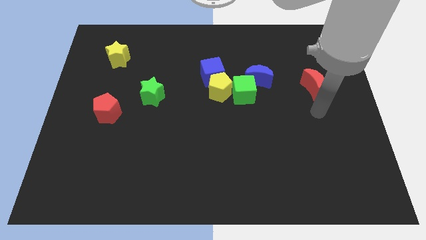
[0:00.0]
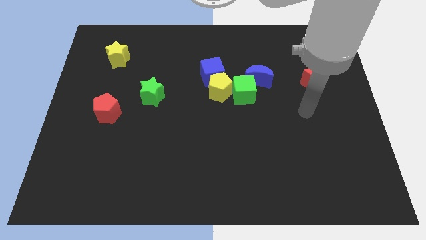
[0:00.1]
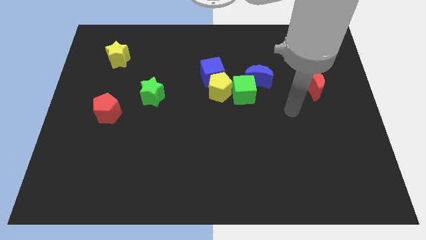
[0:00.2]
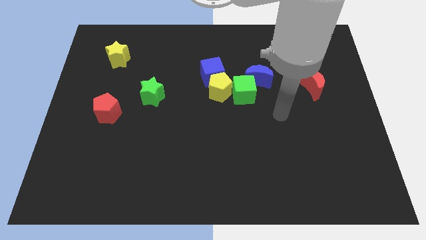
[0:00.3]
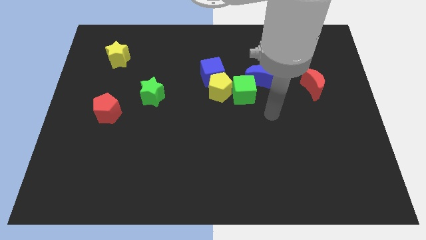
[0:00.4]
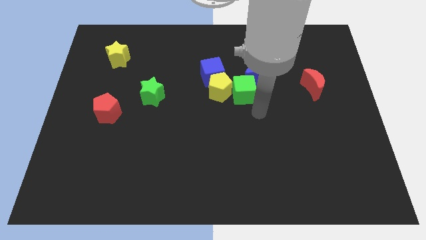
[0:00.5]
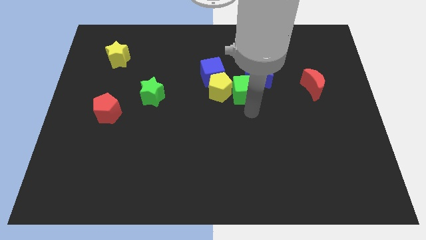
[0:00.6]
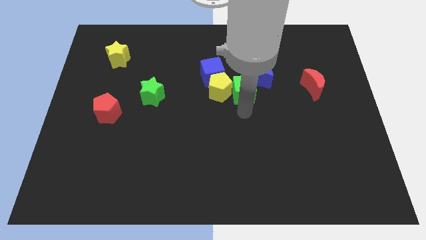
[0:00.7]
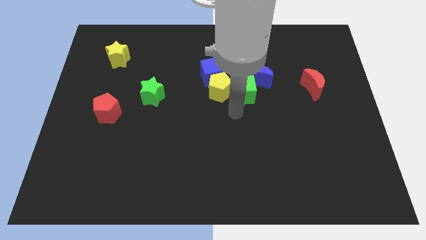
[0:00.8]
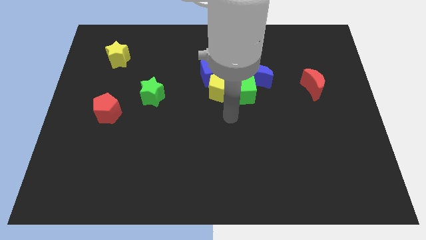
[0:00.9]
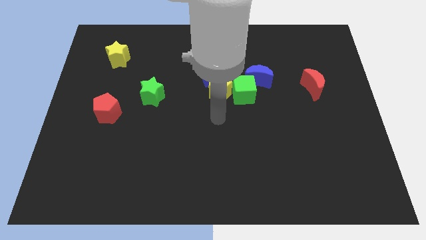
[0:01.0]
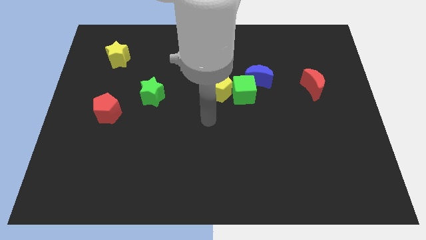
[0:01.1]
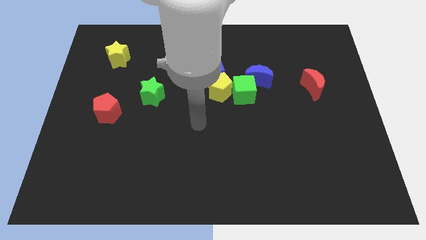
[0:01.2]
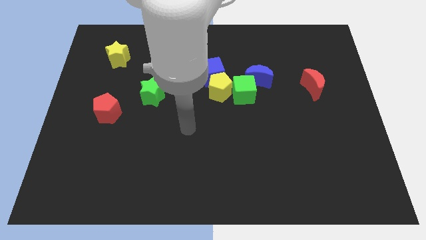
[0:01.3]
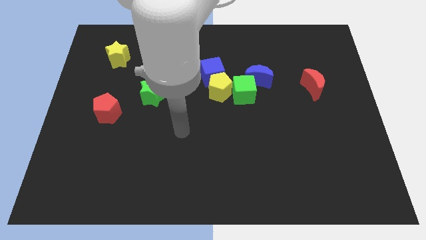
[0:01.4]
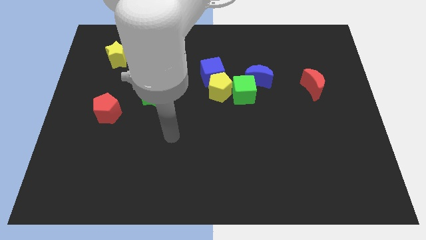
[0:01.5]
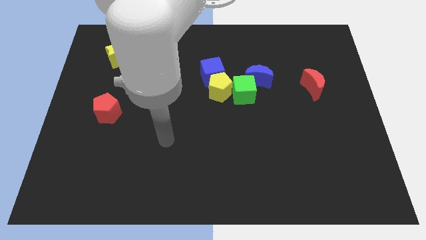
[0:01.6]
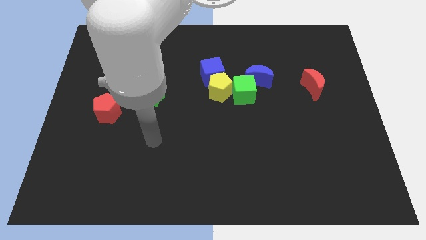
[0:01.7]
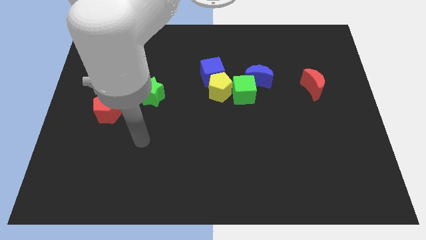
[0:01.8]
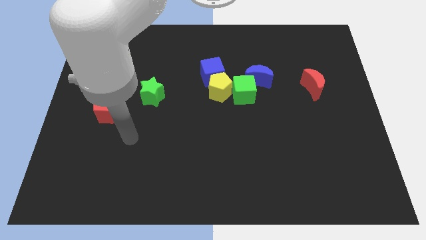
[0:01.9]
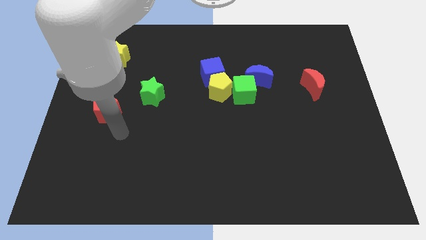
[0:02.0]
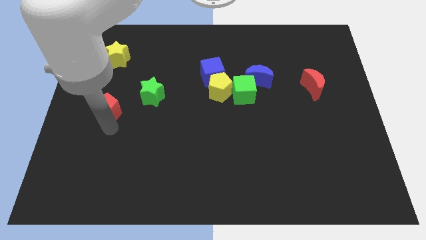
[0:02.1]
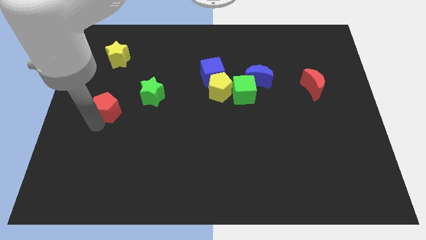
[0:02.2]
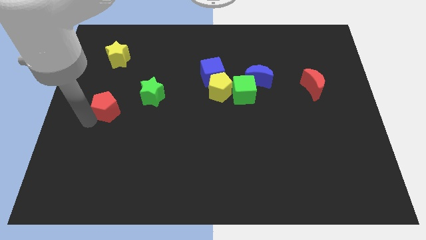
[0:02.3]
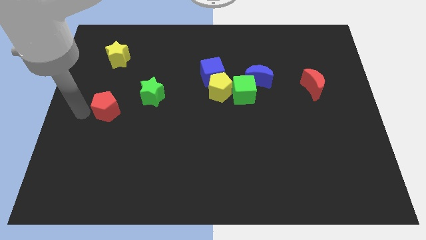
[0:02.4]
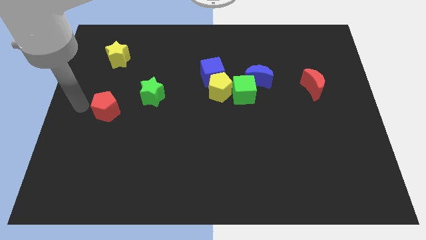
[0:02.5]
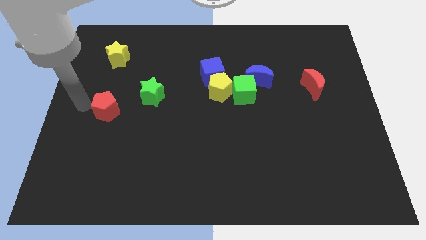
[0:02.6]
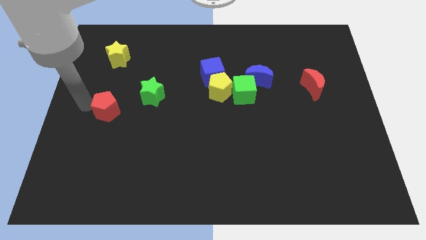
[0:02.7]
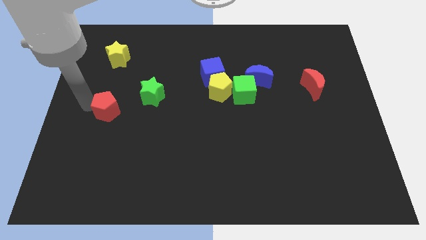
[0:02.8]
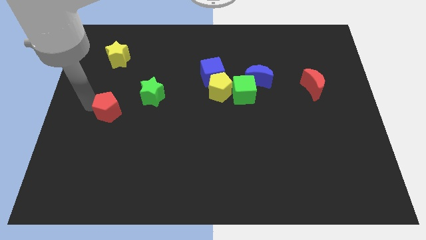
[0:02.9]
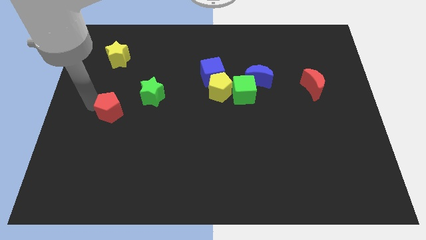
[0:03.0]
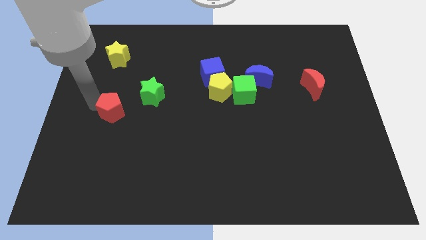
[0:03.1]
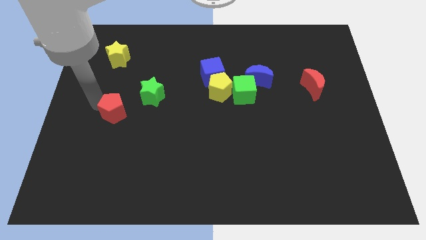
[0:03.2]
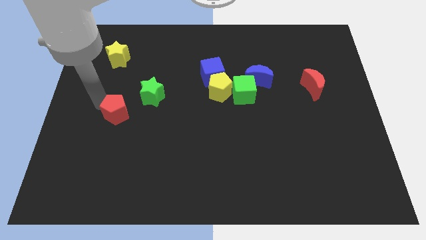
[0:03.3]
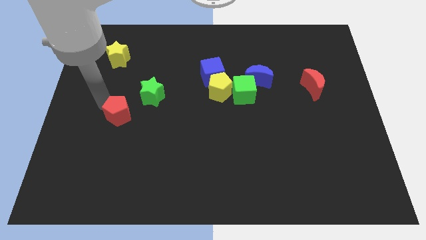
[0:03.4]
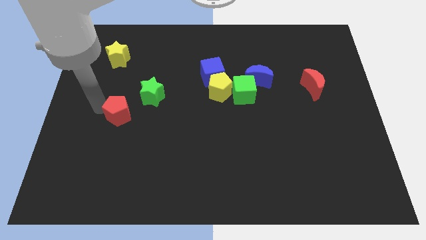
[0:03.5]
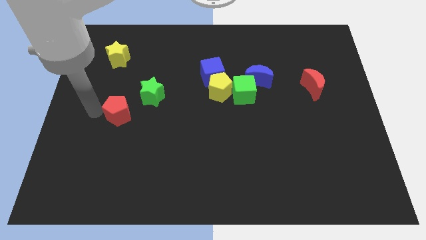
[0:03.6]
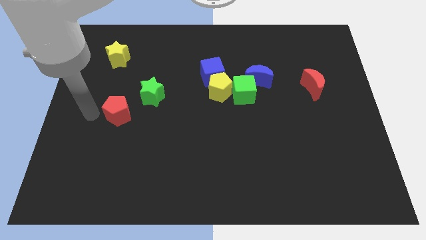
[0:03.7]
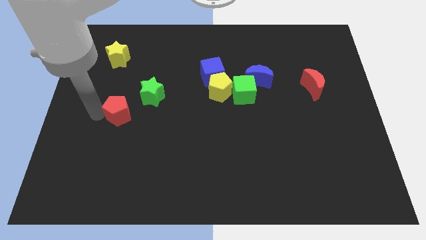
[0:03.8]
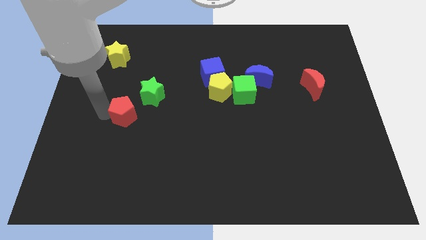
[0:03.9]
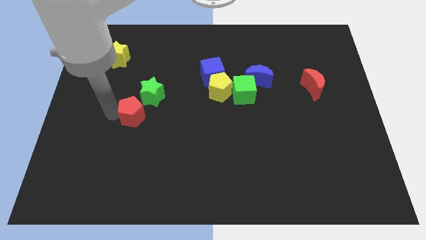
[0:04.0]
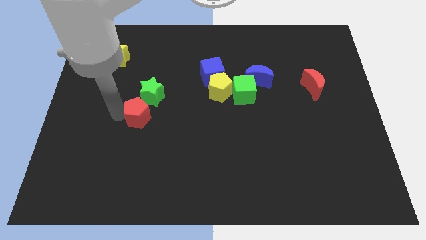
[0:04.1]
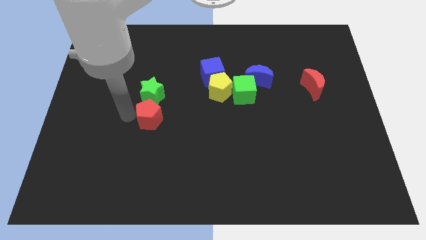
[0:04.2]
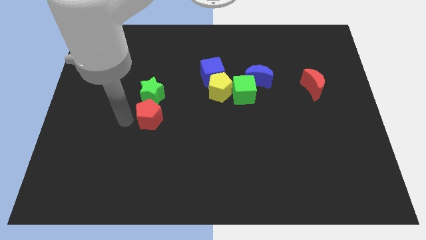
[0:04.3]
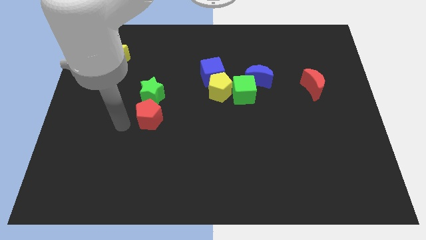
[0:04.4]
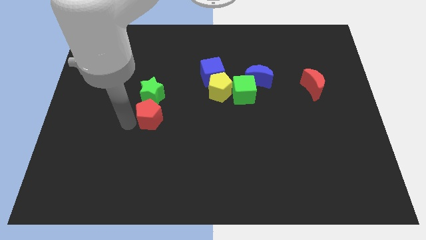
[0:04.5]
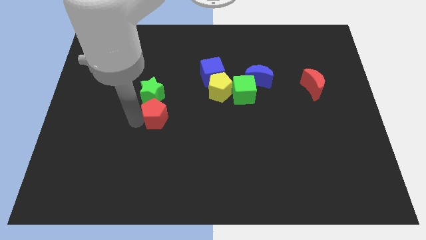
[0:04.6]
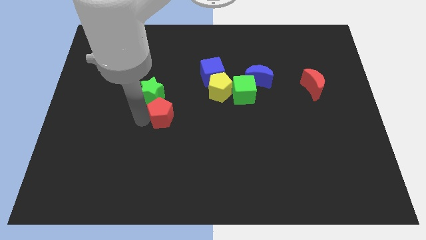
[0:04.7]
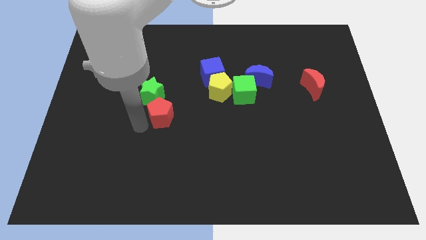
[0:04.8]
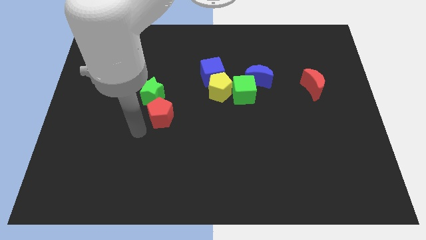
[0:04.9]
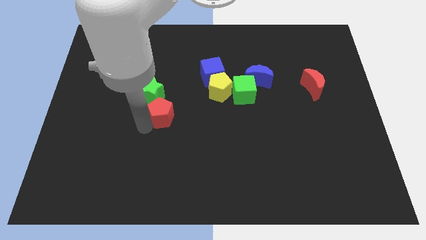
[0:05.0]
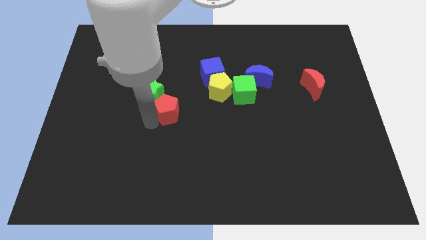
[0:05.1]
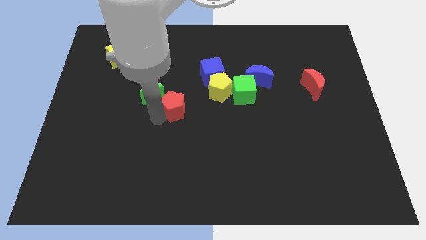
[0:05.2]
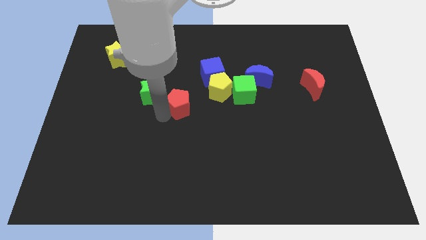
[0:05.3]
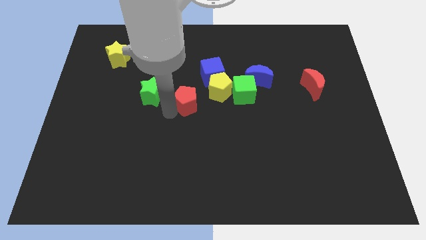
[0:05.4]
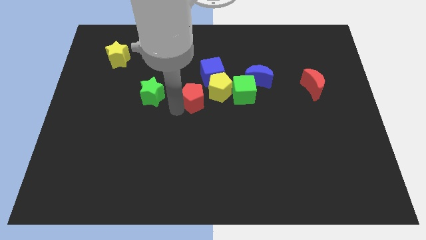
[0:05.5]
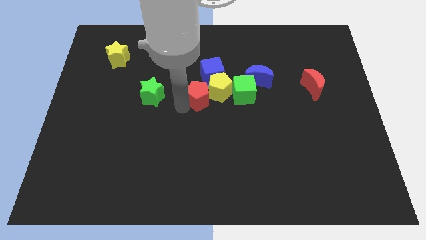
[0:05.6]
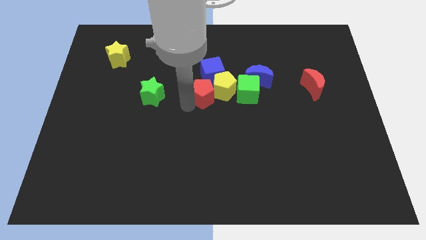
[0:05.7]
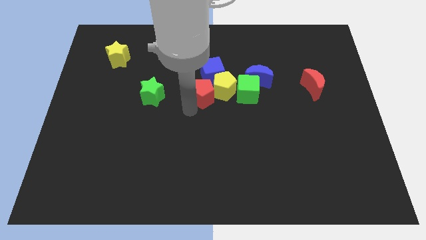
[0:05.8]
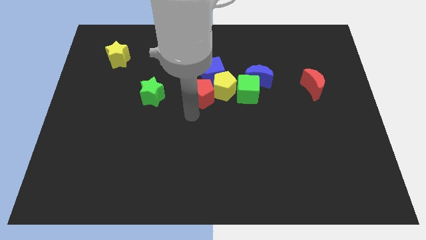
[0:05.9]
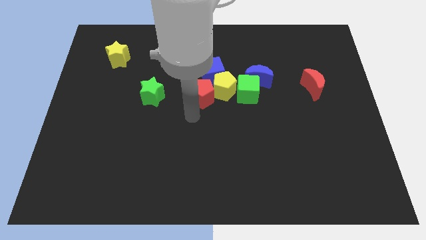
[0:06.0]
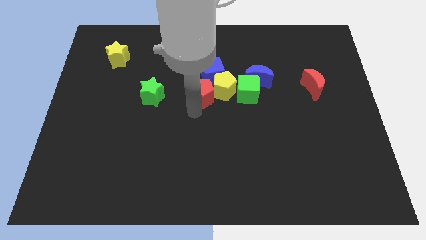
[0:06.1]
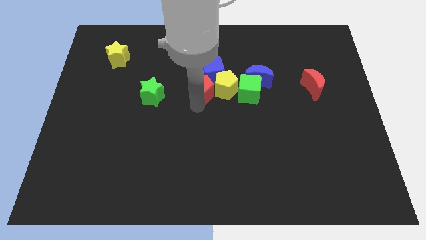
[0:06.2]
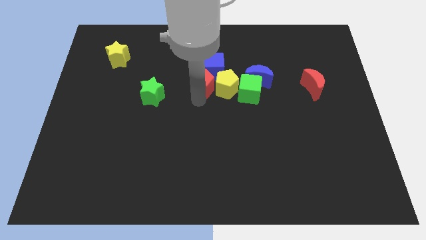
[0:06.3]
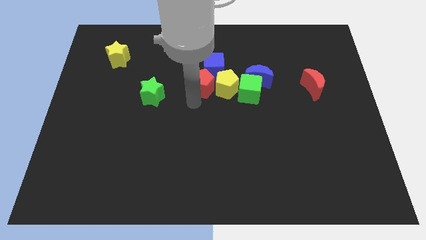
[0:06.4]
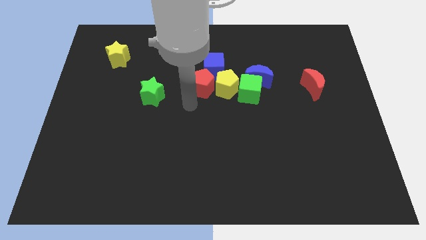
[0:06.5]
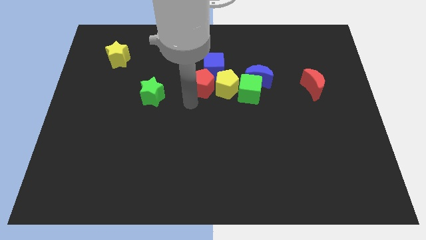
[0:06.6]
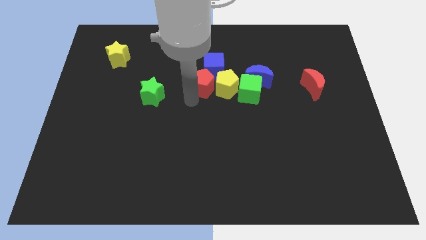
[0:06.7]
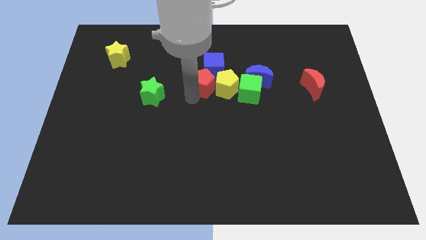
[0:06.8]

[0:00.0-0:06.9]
move the red pentagon next to the blue cube
